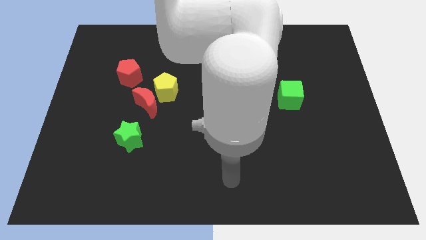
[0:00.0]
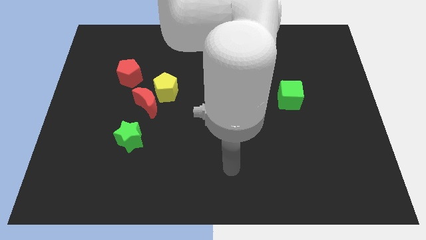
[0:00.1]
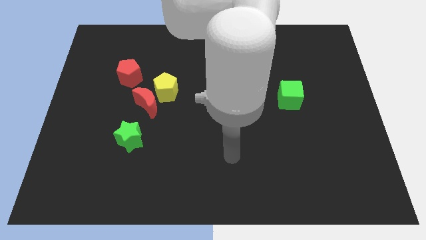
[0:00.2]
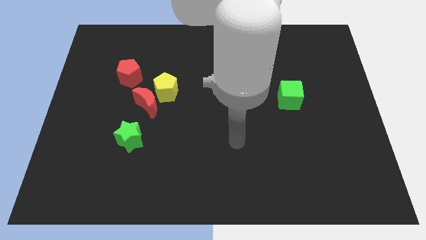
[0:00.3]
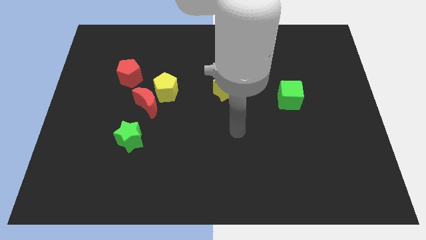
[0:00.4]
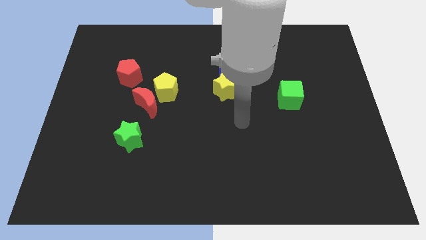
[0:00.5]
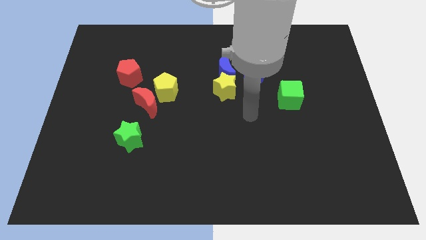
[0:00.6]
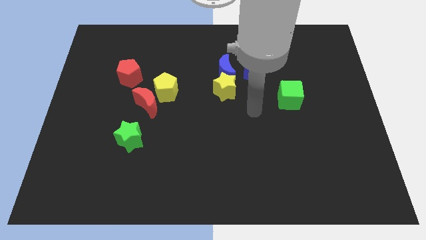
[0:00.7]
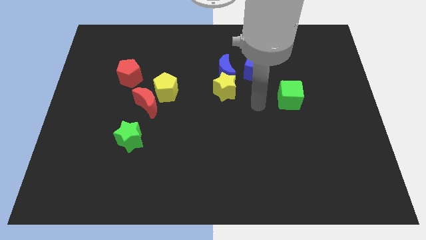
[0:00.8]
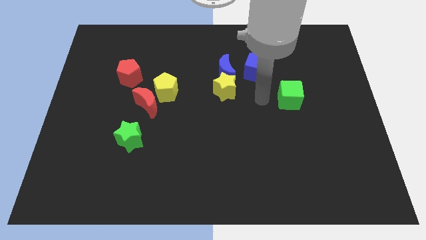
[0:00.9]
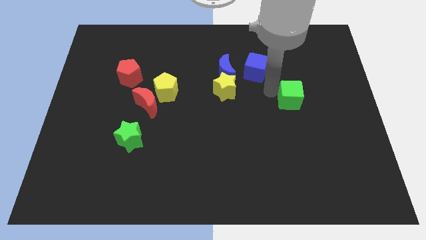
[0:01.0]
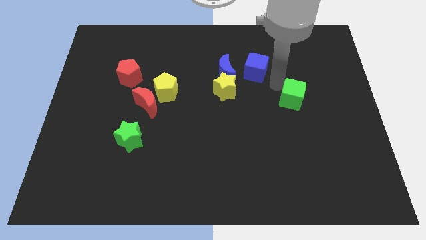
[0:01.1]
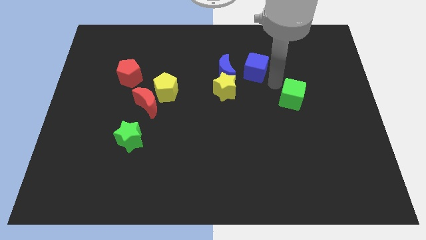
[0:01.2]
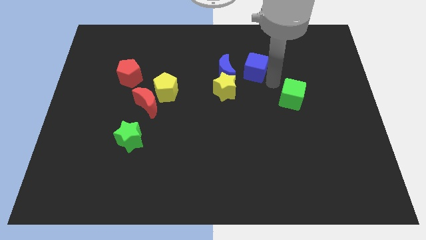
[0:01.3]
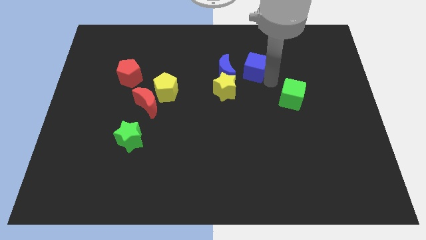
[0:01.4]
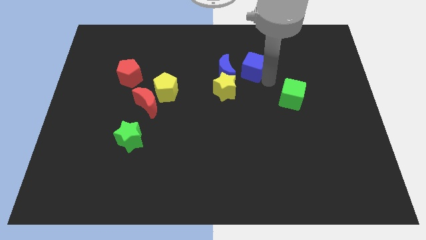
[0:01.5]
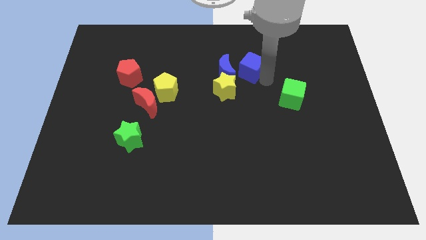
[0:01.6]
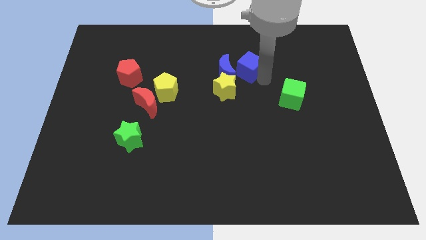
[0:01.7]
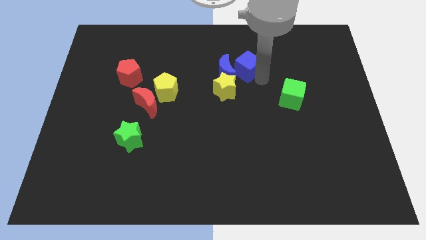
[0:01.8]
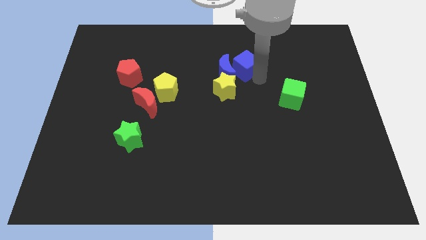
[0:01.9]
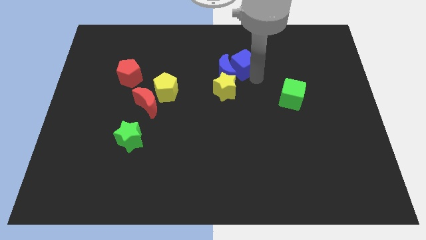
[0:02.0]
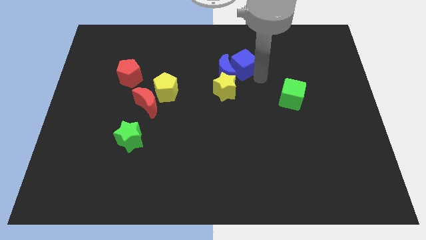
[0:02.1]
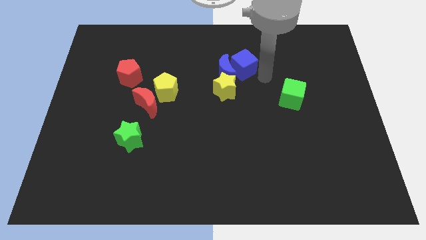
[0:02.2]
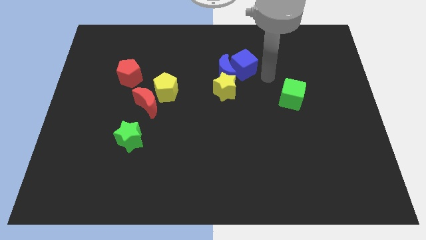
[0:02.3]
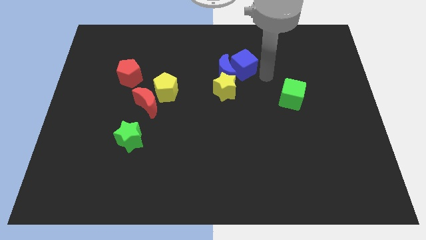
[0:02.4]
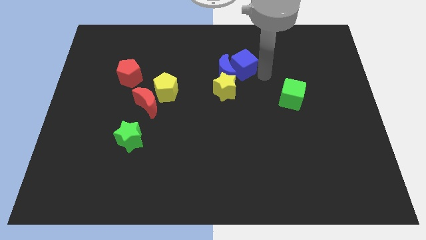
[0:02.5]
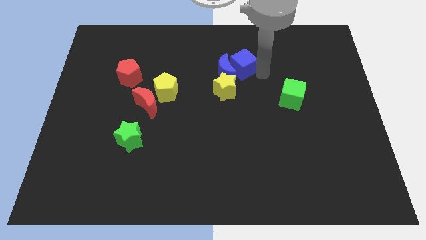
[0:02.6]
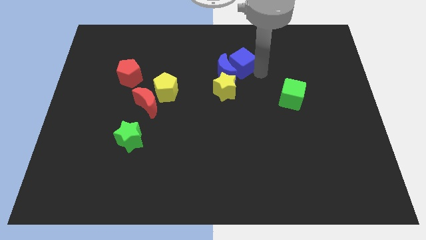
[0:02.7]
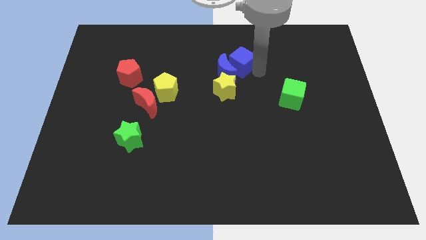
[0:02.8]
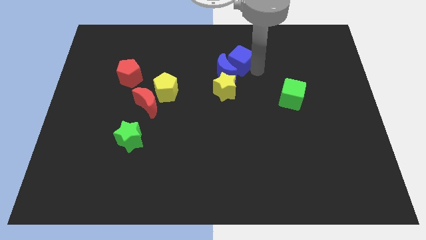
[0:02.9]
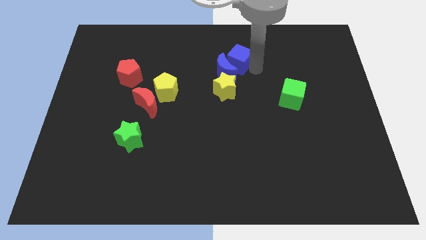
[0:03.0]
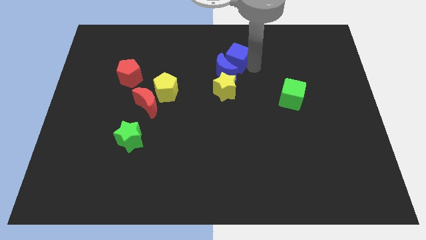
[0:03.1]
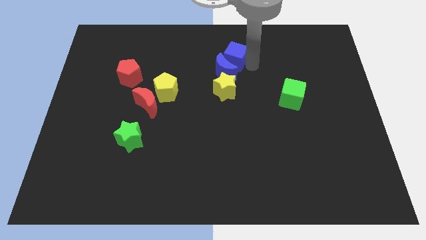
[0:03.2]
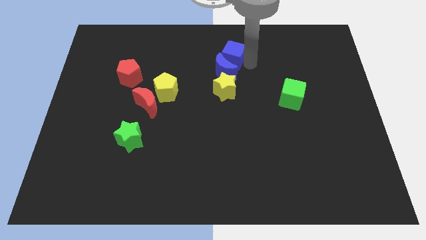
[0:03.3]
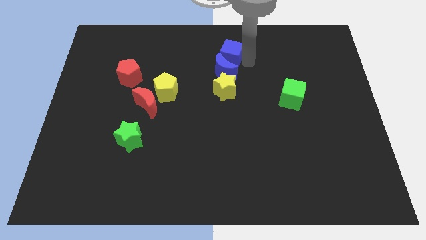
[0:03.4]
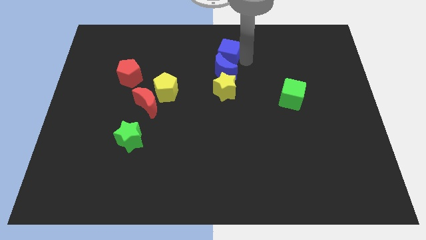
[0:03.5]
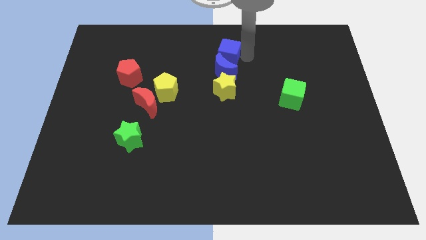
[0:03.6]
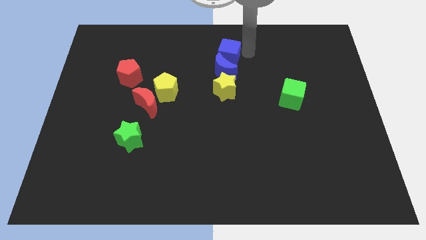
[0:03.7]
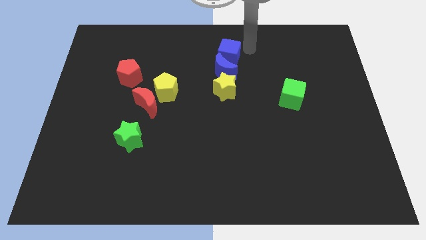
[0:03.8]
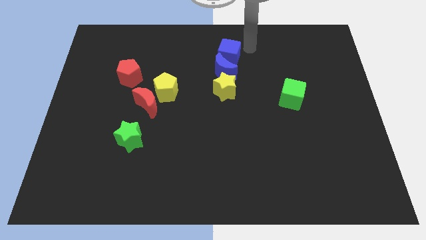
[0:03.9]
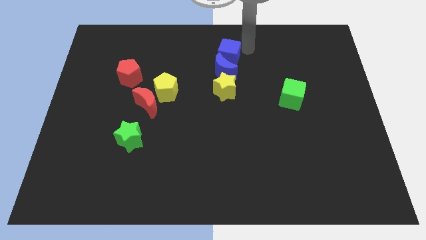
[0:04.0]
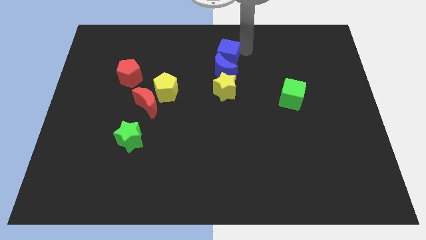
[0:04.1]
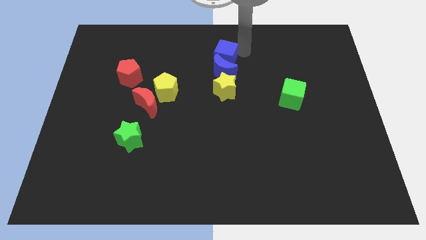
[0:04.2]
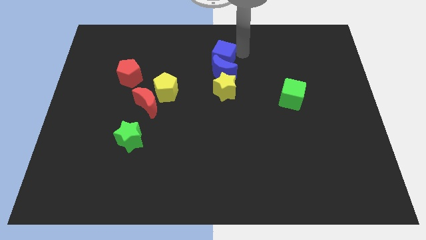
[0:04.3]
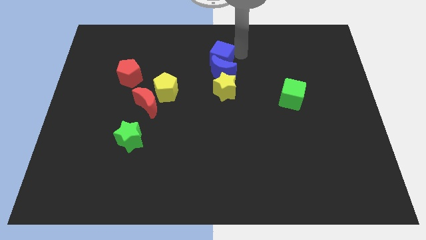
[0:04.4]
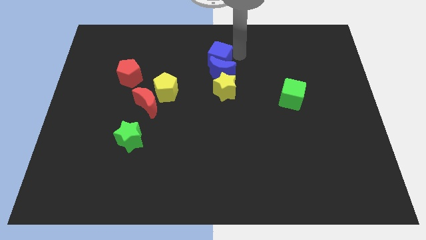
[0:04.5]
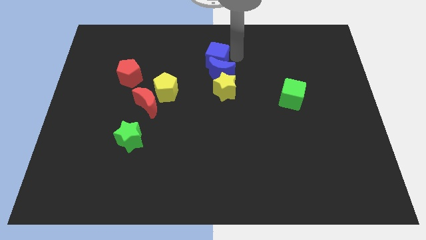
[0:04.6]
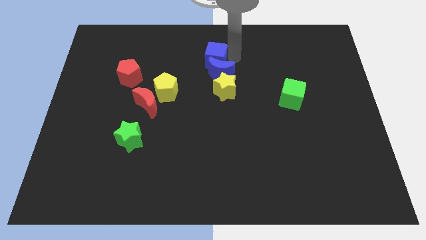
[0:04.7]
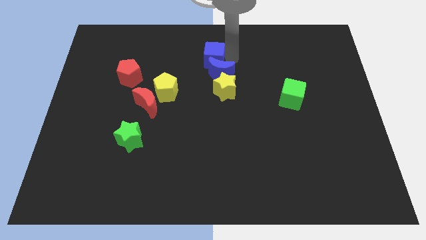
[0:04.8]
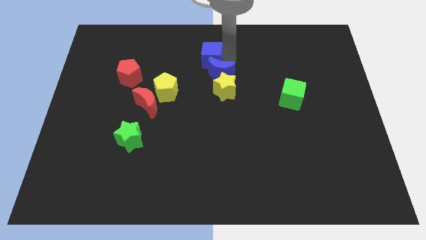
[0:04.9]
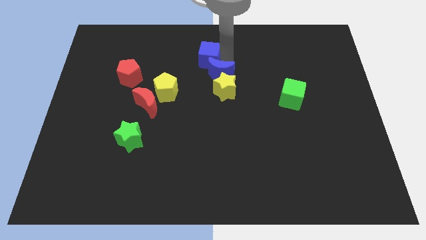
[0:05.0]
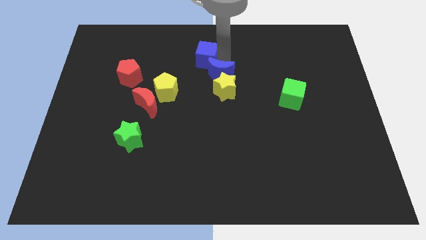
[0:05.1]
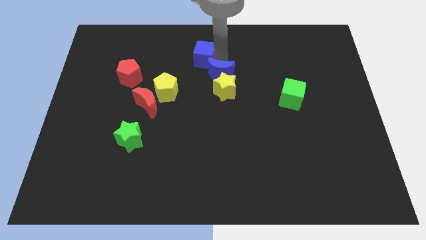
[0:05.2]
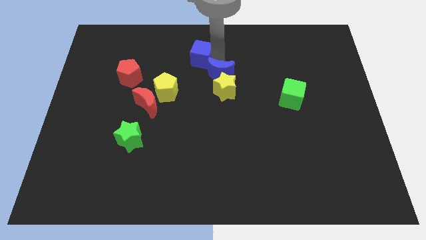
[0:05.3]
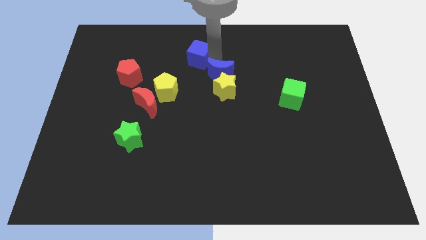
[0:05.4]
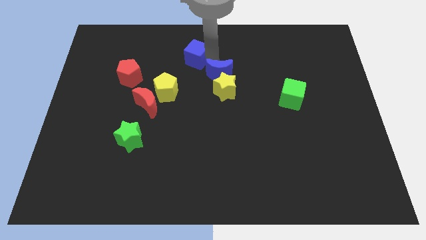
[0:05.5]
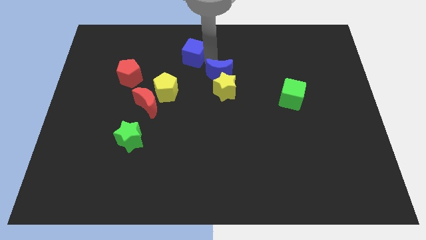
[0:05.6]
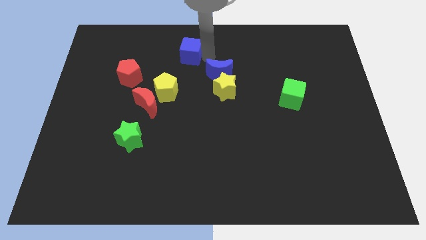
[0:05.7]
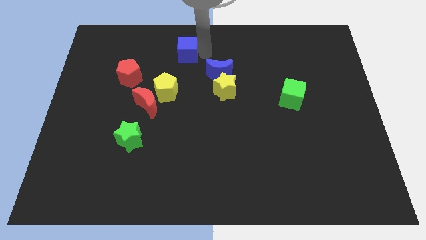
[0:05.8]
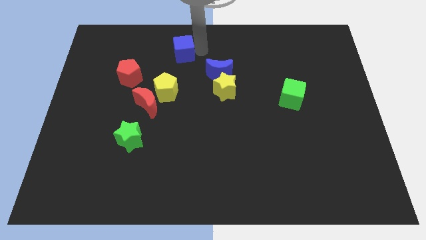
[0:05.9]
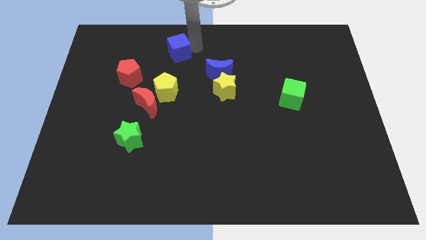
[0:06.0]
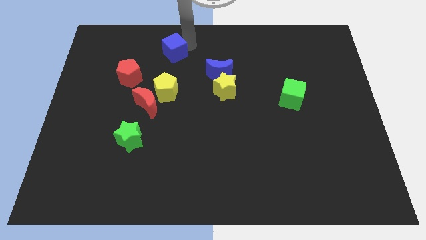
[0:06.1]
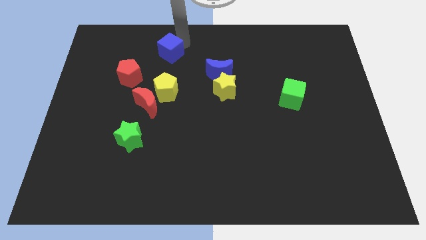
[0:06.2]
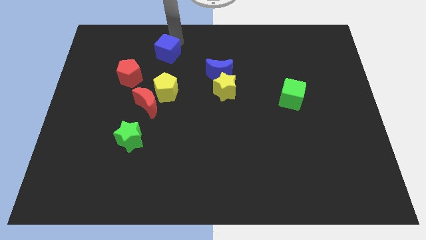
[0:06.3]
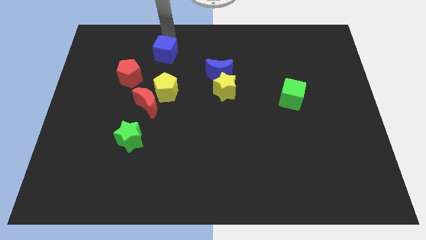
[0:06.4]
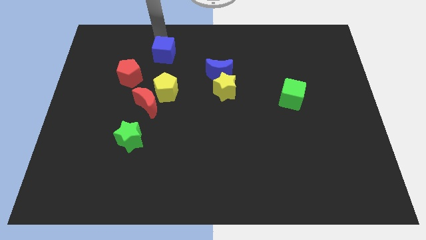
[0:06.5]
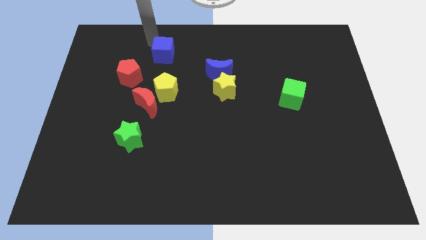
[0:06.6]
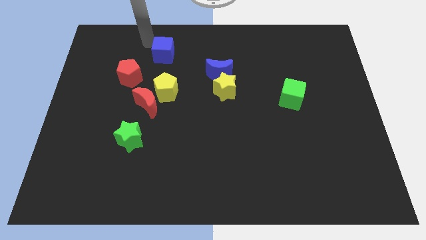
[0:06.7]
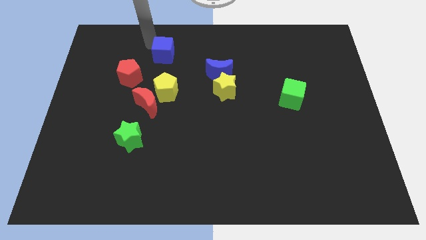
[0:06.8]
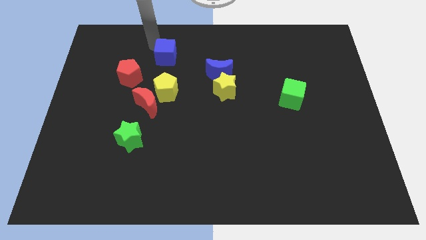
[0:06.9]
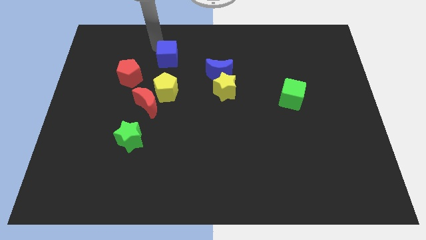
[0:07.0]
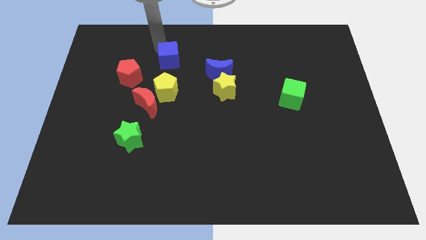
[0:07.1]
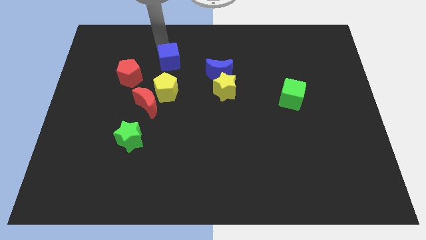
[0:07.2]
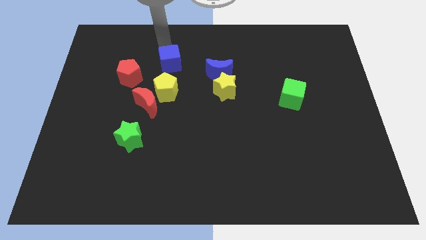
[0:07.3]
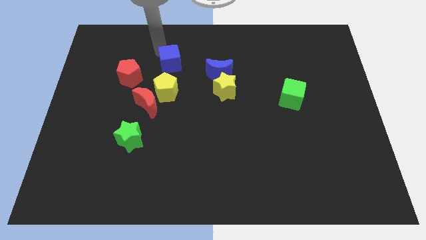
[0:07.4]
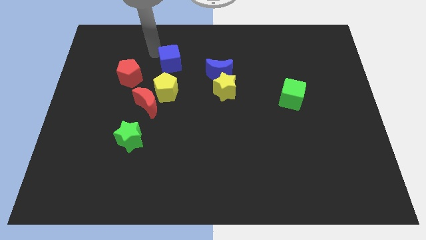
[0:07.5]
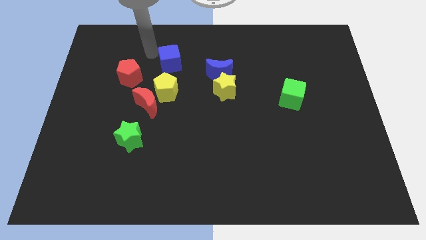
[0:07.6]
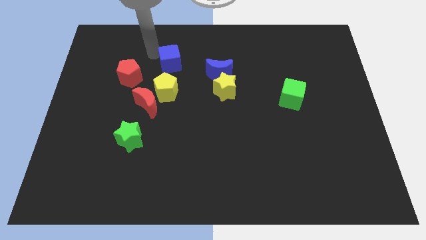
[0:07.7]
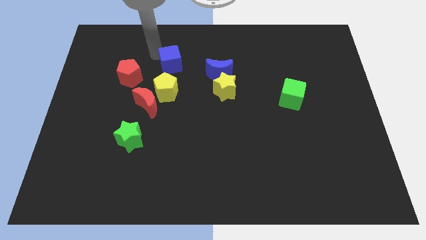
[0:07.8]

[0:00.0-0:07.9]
slide the blue cube right of the red pentagon

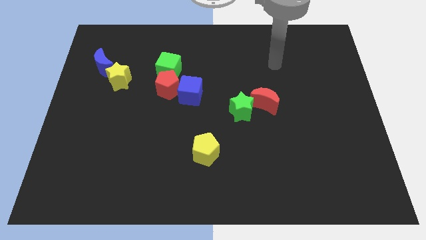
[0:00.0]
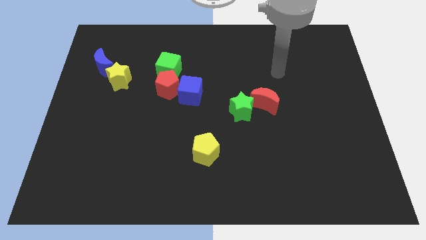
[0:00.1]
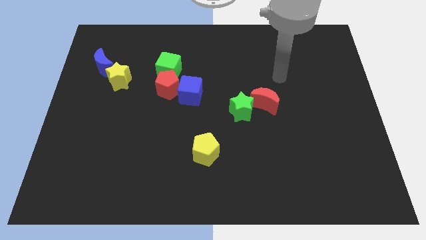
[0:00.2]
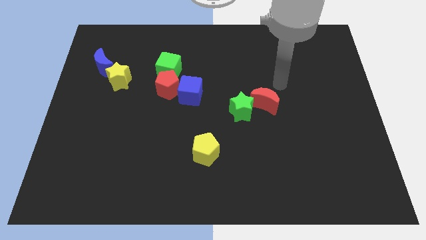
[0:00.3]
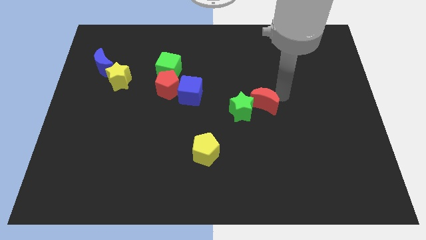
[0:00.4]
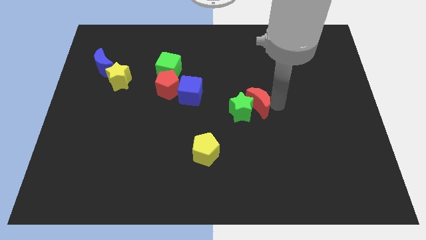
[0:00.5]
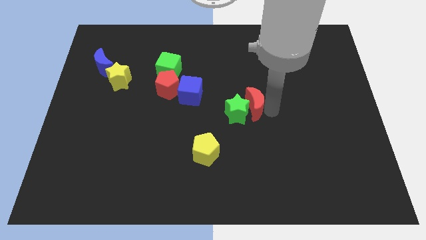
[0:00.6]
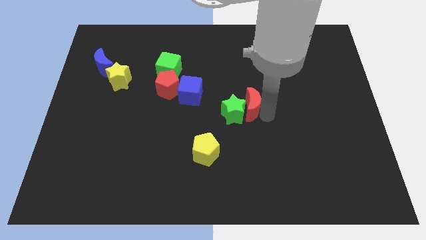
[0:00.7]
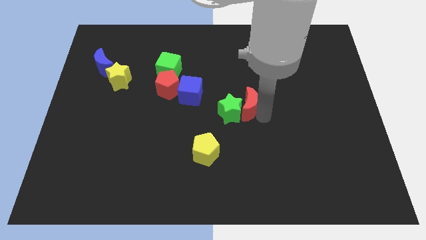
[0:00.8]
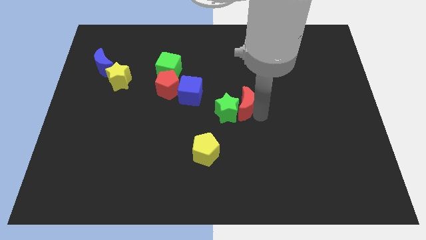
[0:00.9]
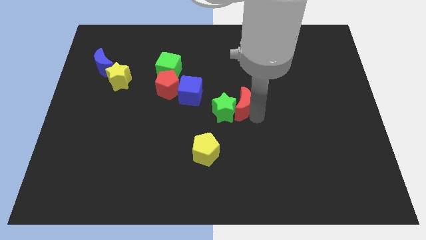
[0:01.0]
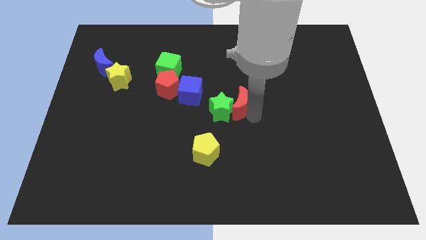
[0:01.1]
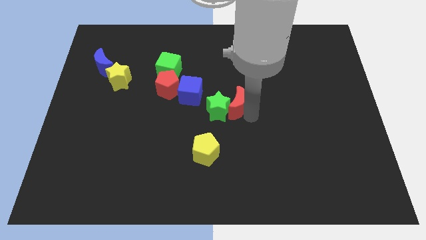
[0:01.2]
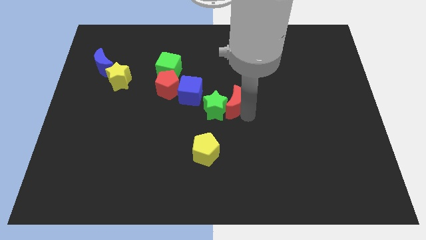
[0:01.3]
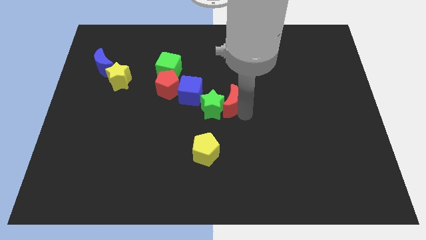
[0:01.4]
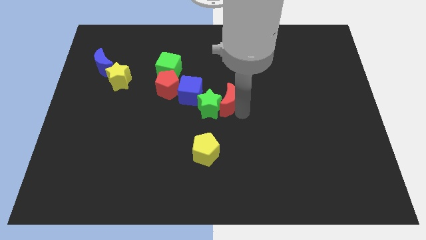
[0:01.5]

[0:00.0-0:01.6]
slide the green star to the bottom right of the red pentagon
